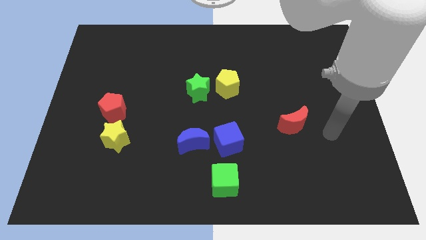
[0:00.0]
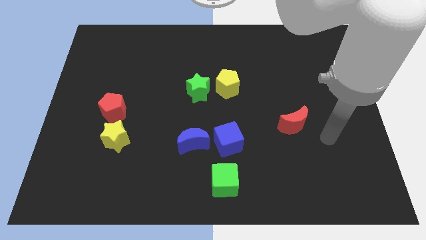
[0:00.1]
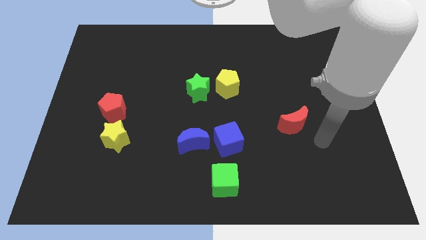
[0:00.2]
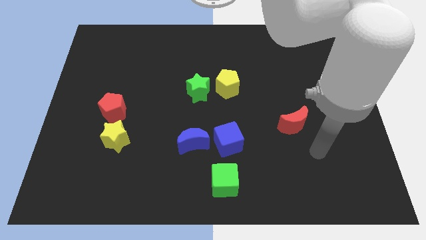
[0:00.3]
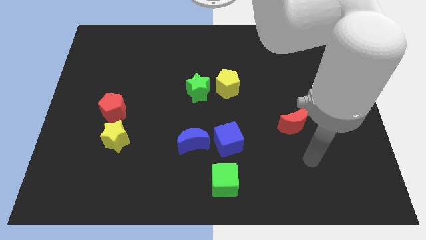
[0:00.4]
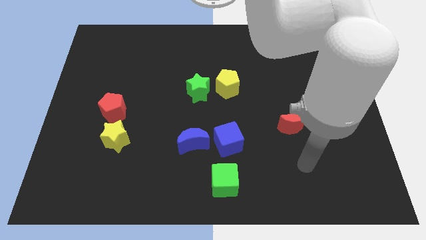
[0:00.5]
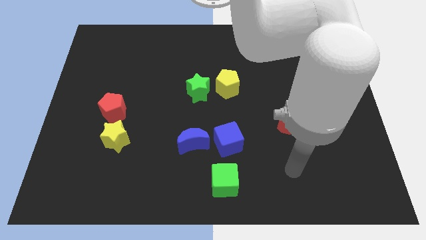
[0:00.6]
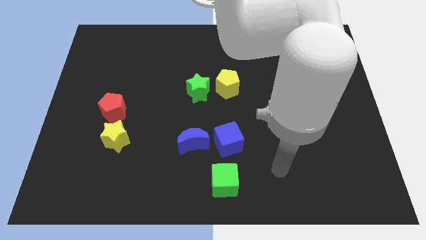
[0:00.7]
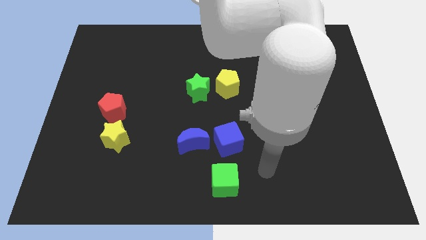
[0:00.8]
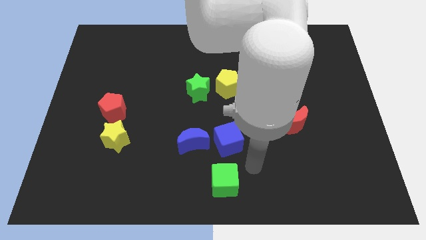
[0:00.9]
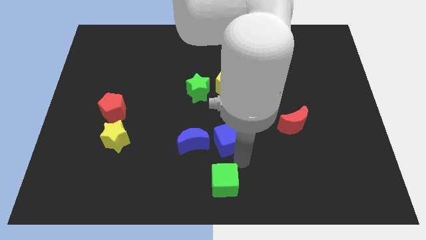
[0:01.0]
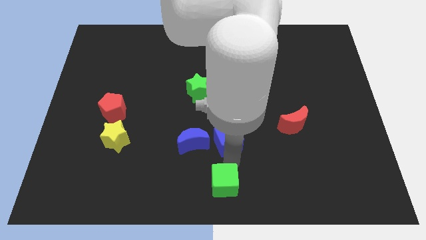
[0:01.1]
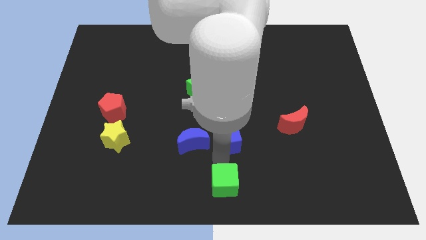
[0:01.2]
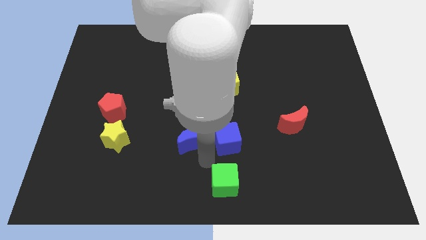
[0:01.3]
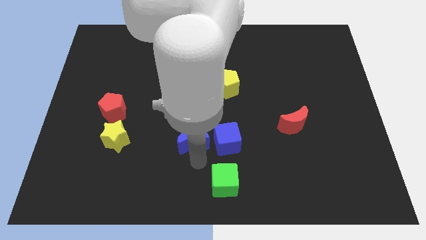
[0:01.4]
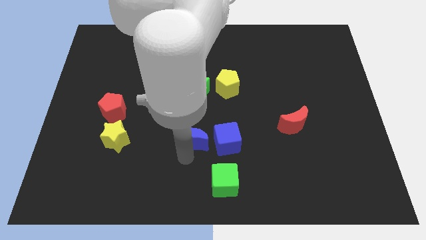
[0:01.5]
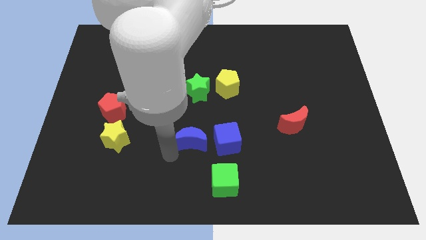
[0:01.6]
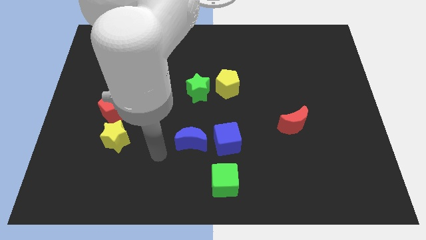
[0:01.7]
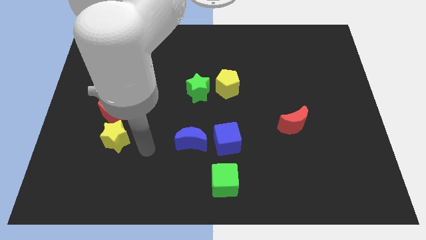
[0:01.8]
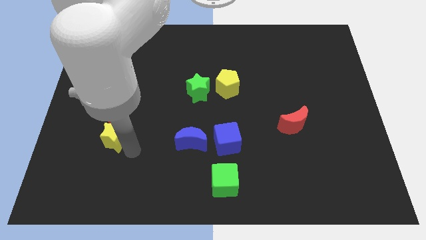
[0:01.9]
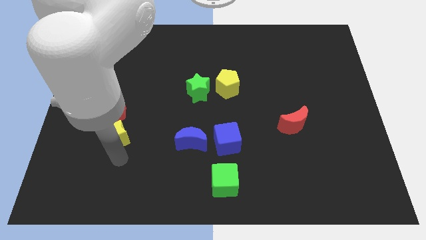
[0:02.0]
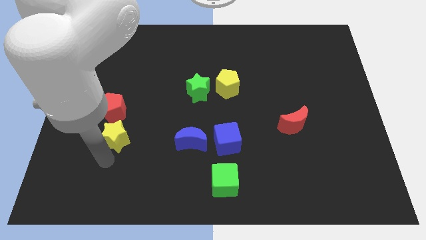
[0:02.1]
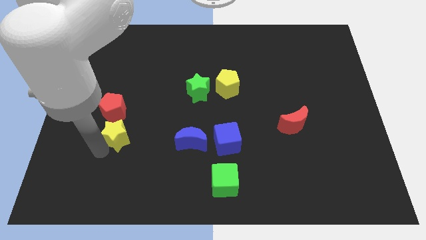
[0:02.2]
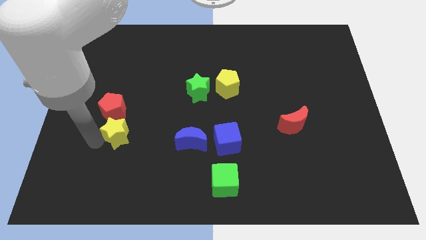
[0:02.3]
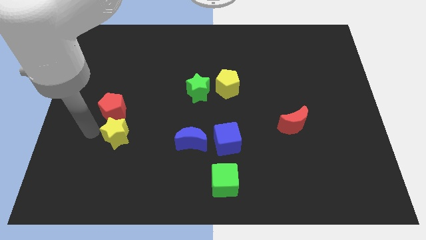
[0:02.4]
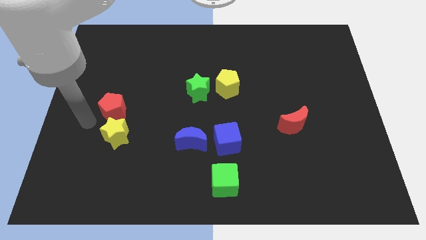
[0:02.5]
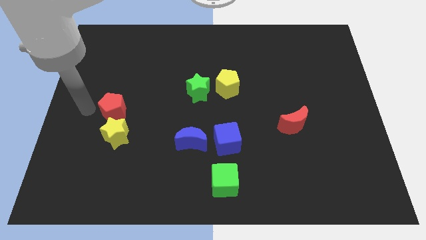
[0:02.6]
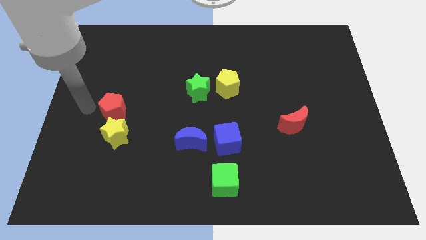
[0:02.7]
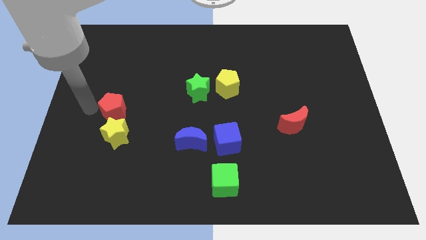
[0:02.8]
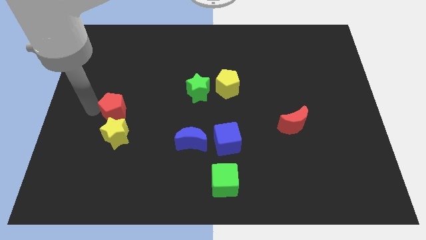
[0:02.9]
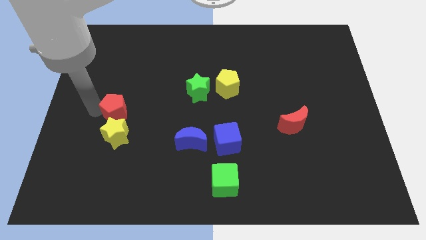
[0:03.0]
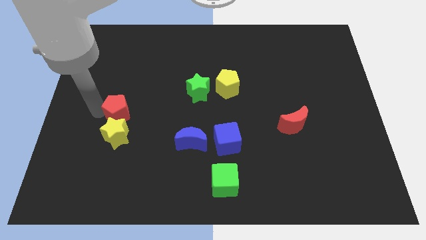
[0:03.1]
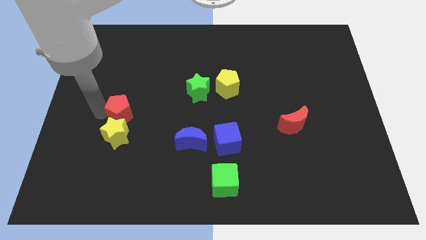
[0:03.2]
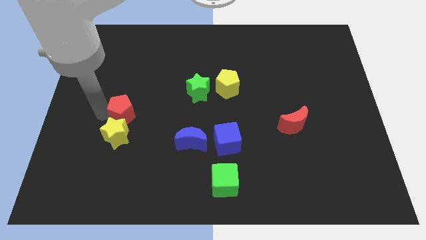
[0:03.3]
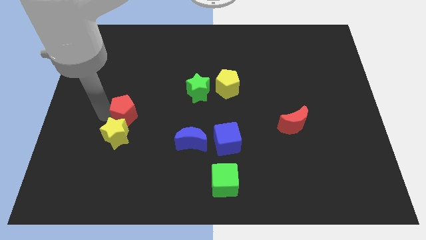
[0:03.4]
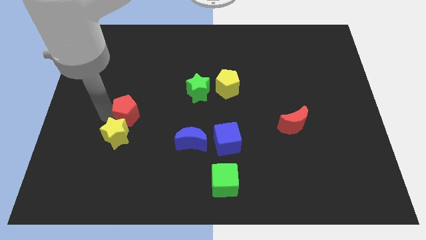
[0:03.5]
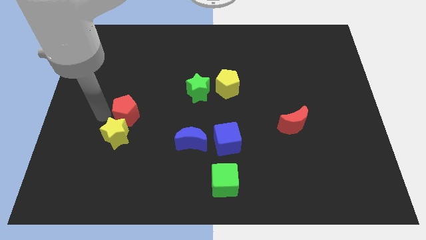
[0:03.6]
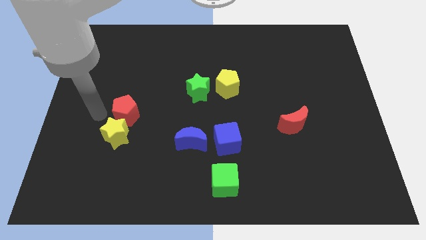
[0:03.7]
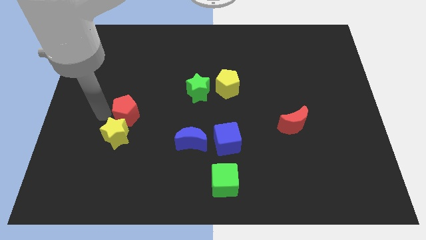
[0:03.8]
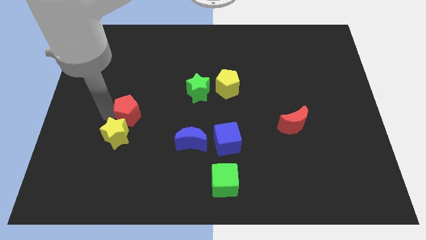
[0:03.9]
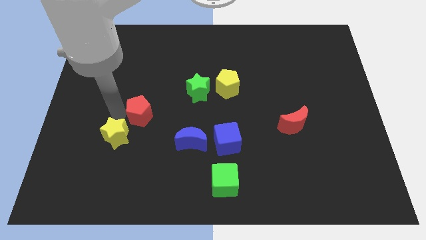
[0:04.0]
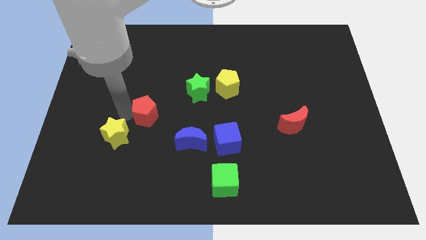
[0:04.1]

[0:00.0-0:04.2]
push the red pentagon somewhat to the right

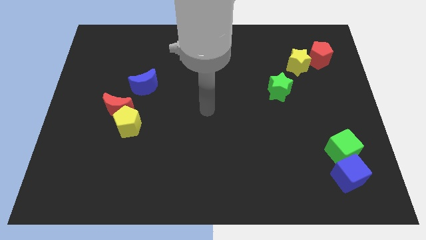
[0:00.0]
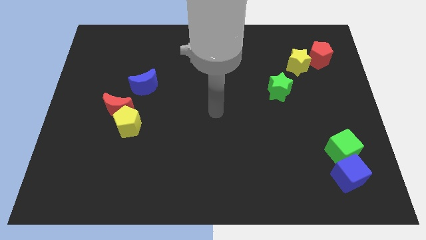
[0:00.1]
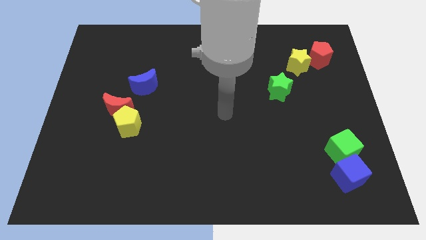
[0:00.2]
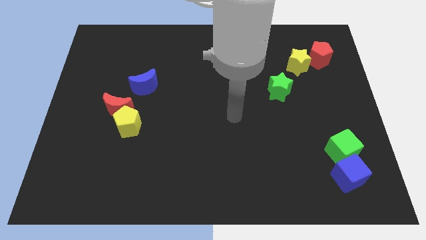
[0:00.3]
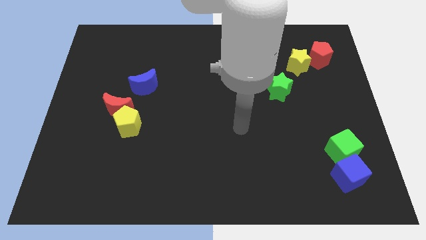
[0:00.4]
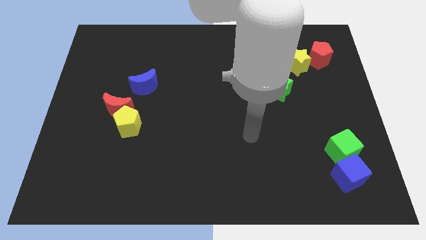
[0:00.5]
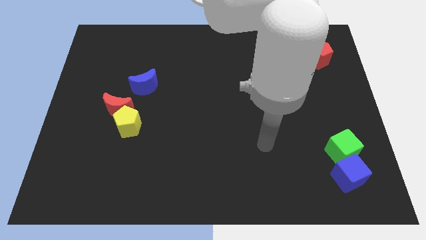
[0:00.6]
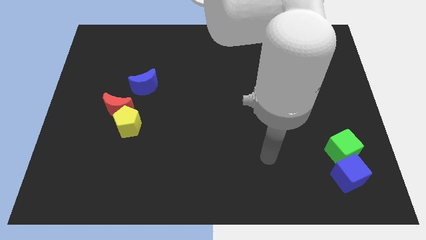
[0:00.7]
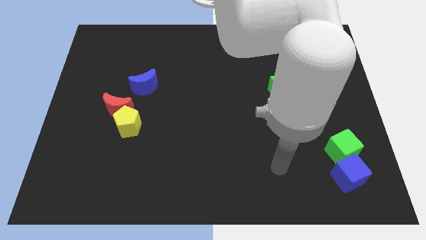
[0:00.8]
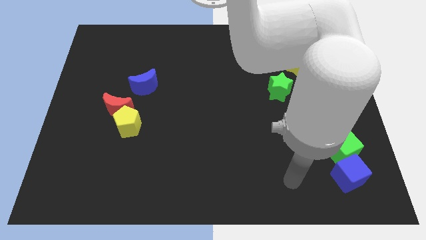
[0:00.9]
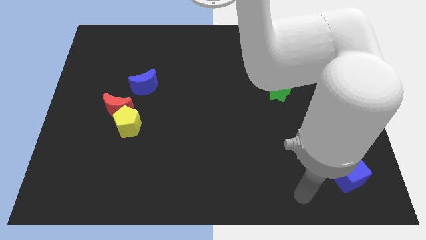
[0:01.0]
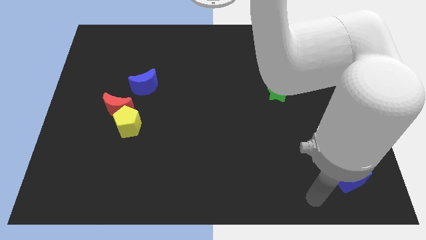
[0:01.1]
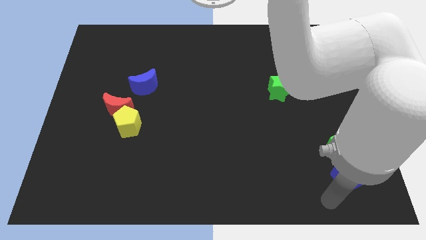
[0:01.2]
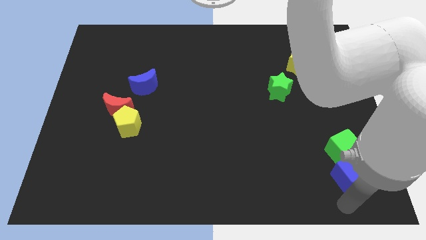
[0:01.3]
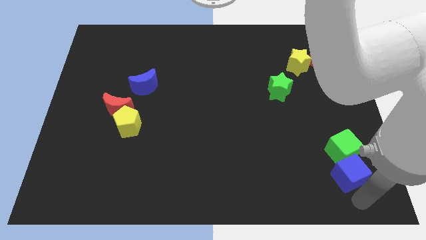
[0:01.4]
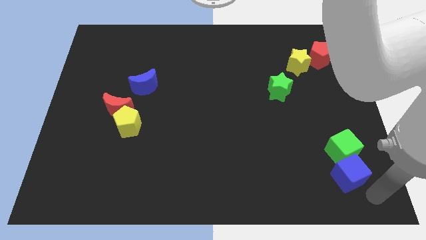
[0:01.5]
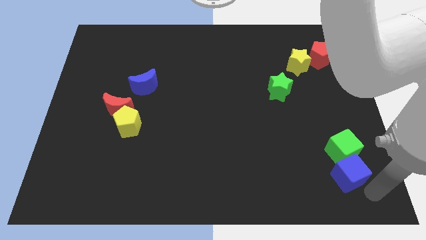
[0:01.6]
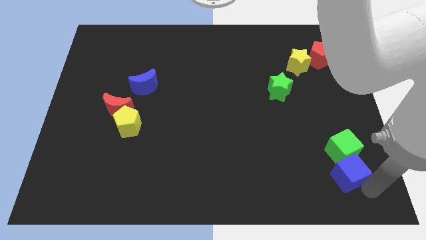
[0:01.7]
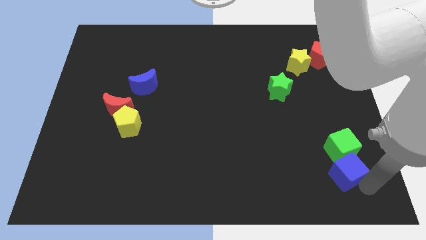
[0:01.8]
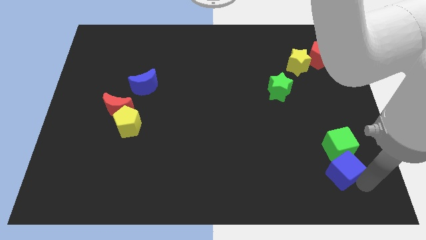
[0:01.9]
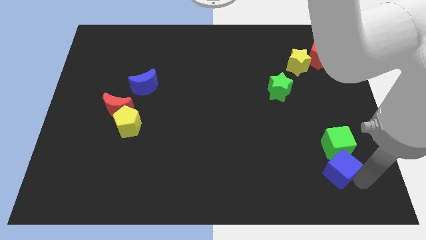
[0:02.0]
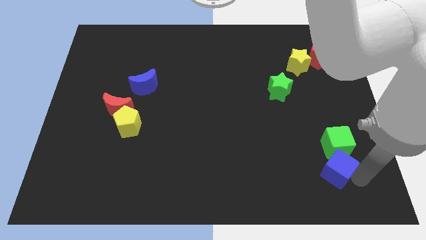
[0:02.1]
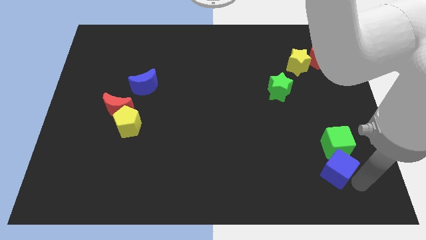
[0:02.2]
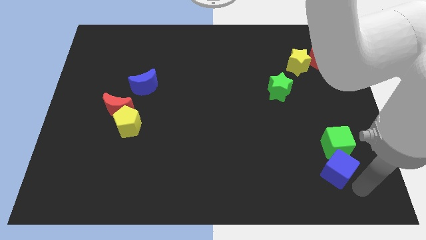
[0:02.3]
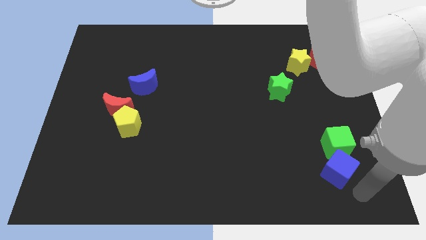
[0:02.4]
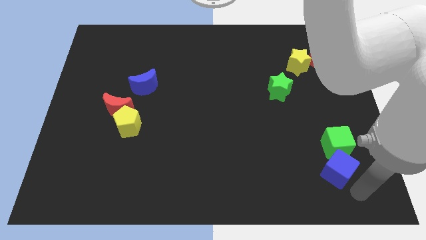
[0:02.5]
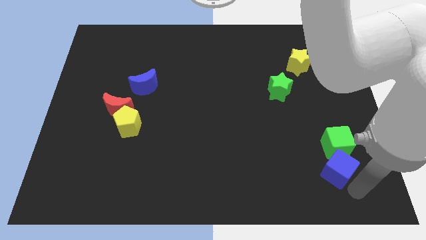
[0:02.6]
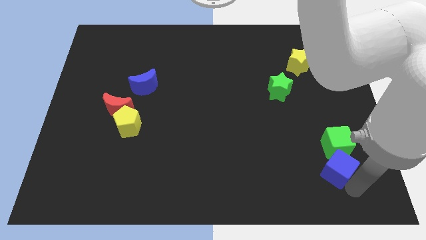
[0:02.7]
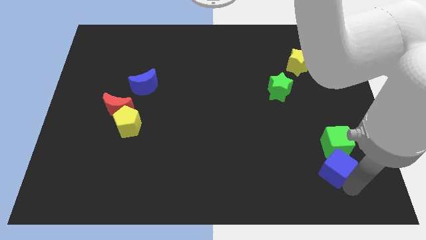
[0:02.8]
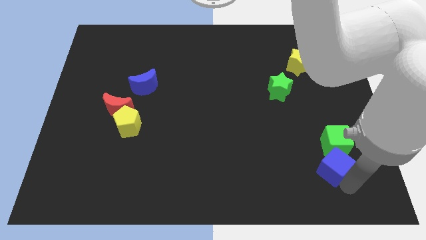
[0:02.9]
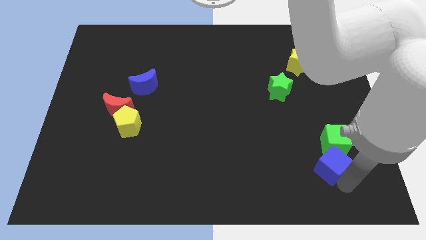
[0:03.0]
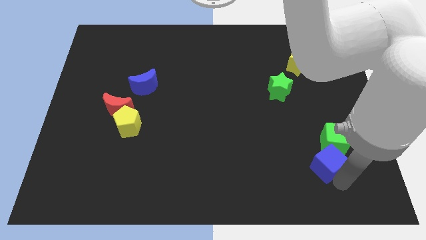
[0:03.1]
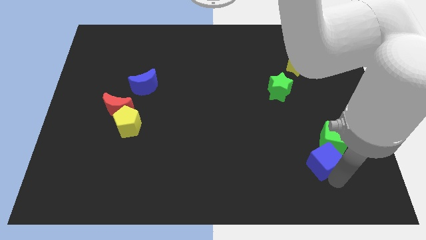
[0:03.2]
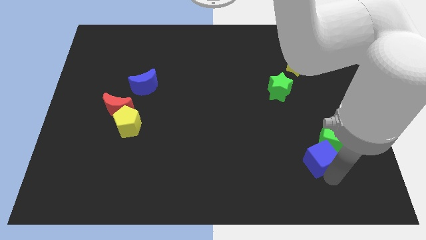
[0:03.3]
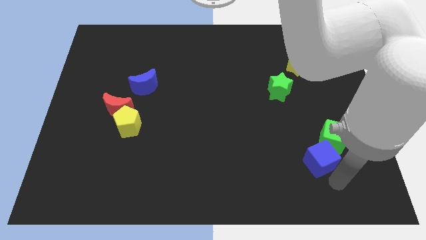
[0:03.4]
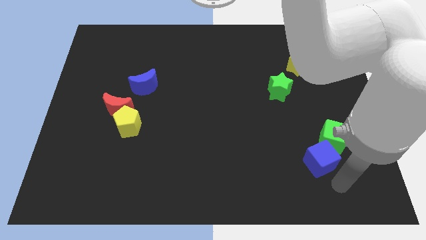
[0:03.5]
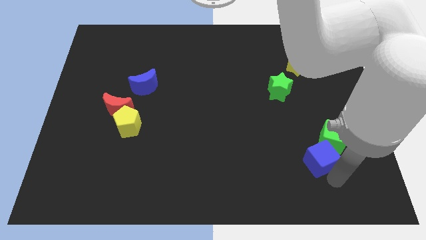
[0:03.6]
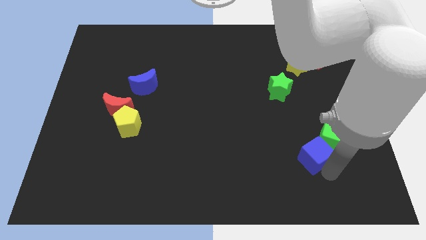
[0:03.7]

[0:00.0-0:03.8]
slightly slide the blue cube up and left

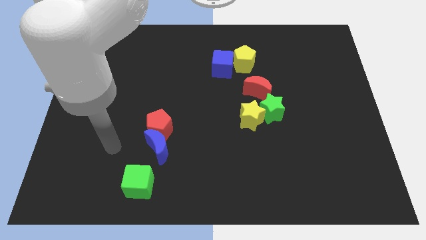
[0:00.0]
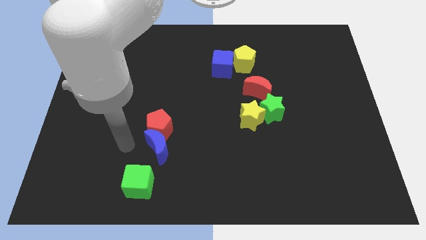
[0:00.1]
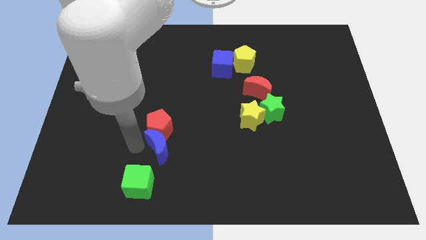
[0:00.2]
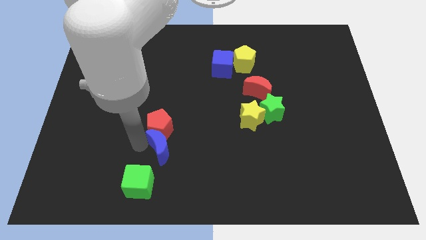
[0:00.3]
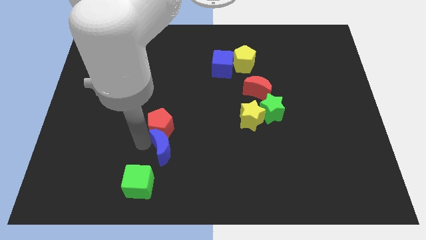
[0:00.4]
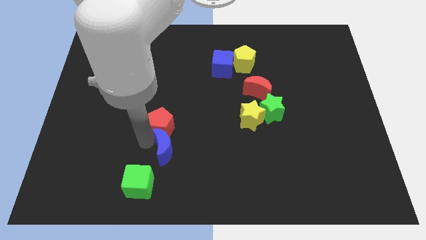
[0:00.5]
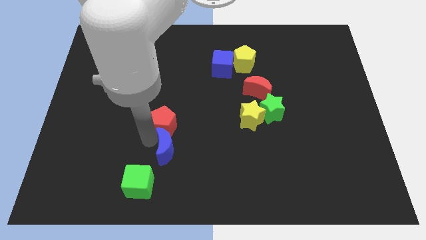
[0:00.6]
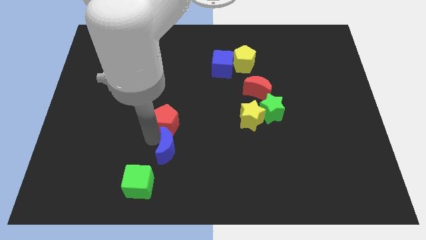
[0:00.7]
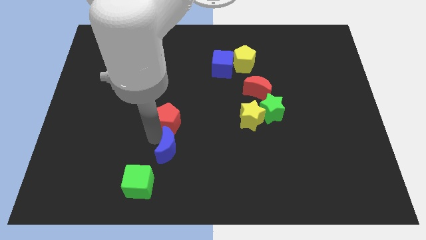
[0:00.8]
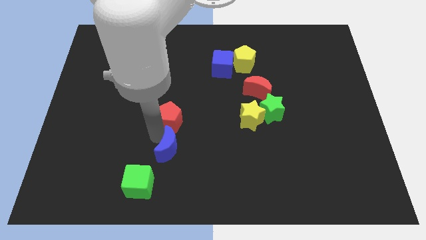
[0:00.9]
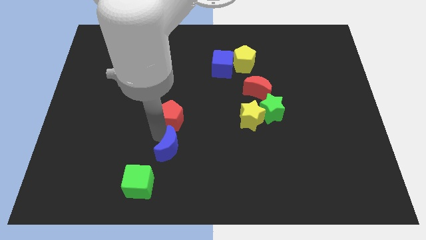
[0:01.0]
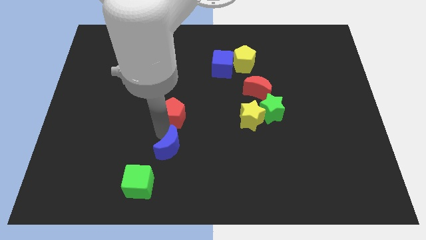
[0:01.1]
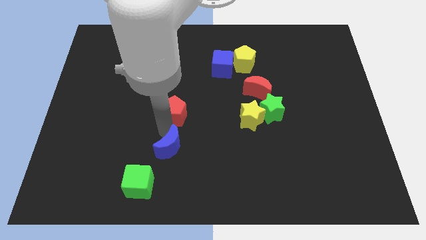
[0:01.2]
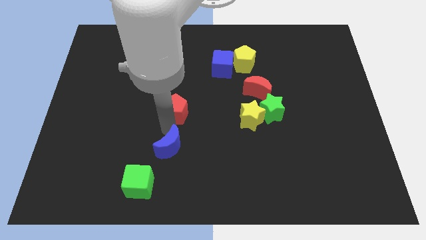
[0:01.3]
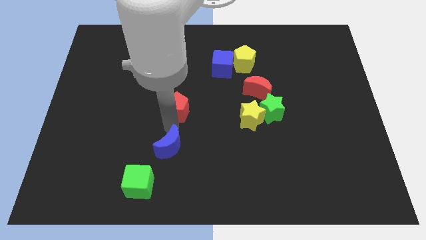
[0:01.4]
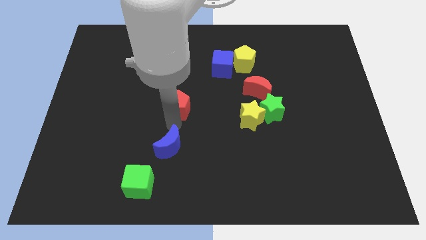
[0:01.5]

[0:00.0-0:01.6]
slightly move the red pentagon up and to the right diagonally
